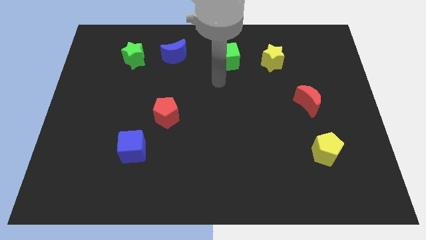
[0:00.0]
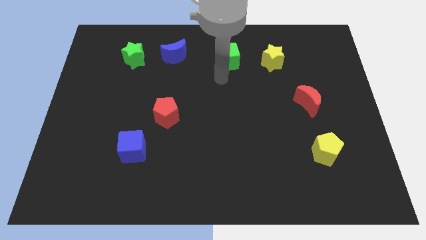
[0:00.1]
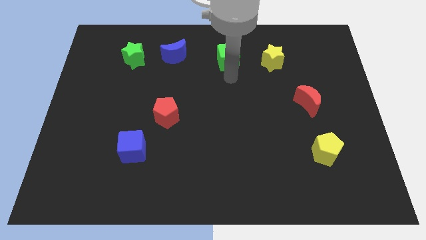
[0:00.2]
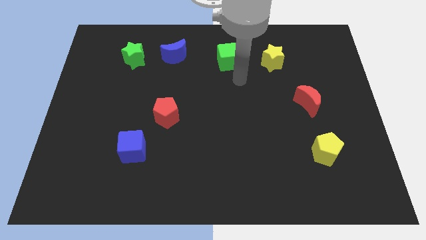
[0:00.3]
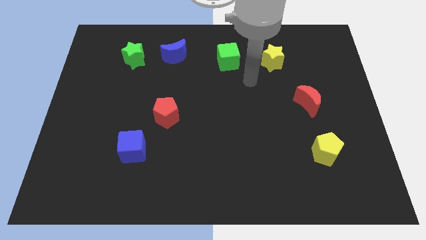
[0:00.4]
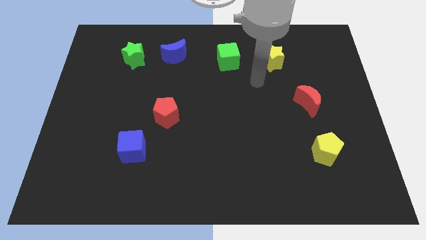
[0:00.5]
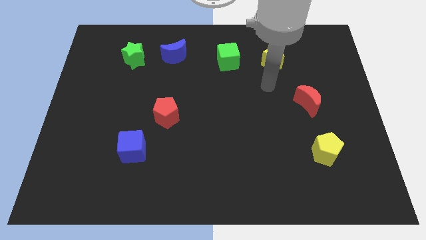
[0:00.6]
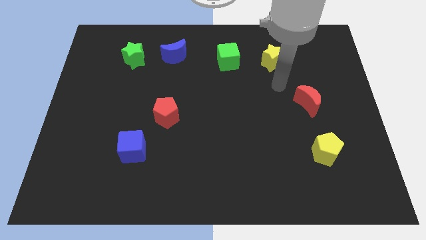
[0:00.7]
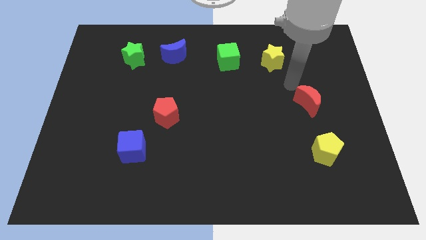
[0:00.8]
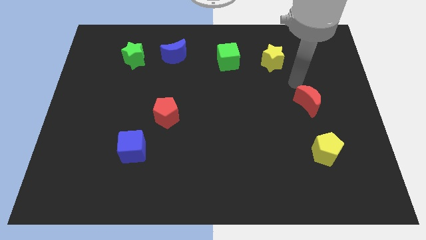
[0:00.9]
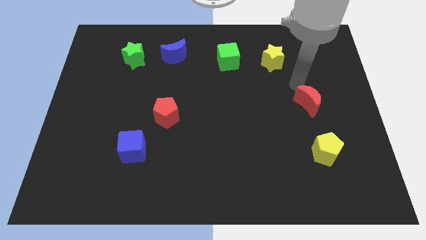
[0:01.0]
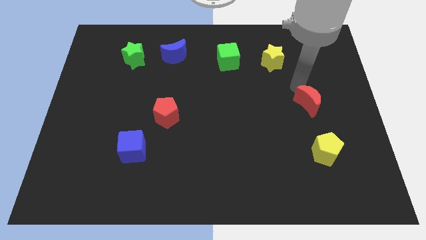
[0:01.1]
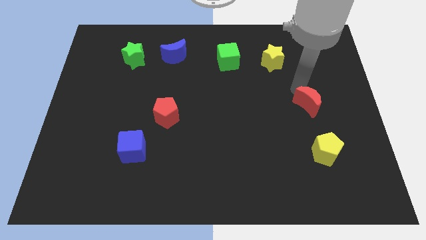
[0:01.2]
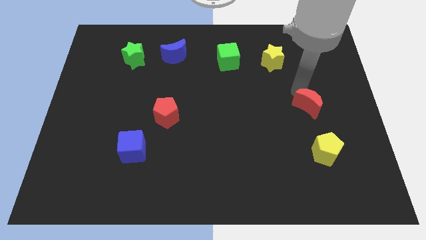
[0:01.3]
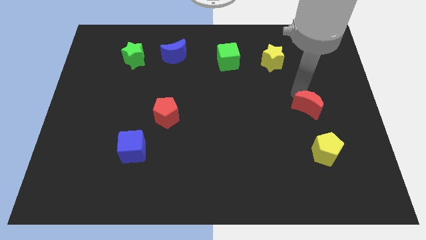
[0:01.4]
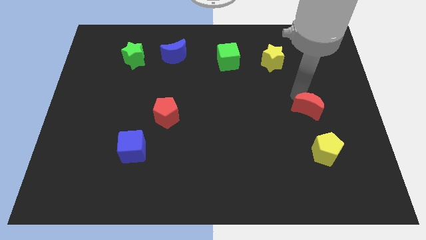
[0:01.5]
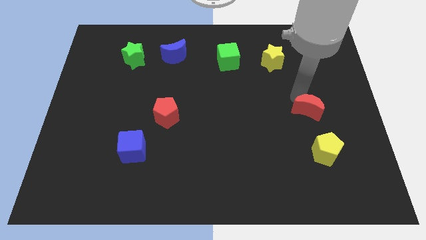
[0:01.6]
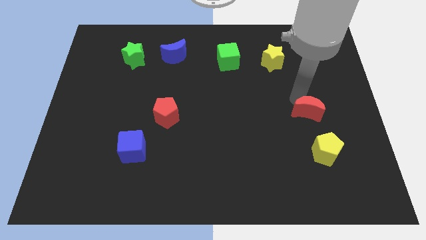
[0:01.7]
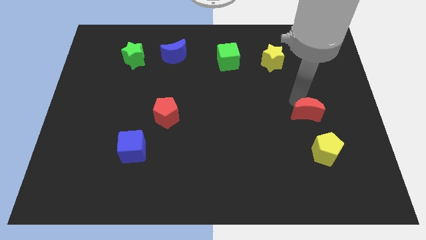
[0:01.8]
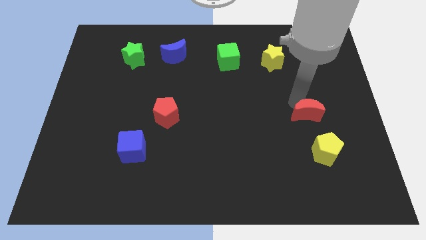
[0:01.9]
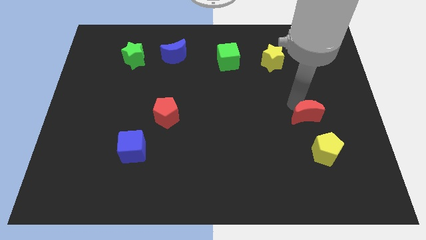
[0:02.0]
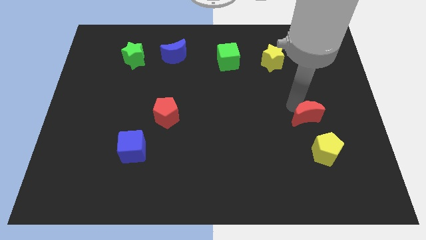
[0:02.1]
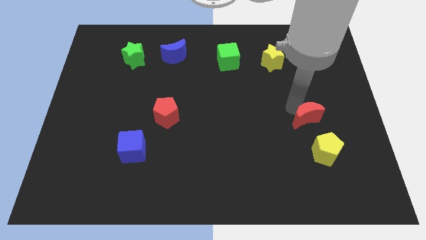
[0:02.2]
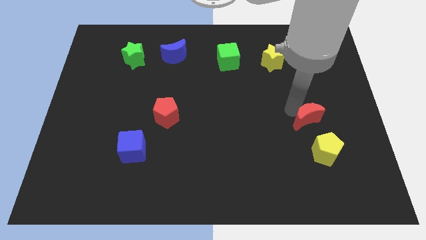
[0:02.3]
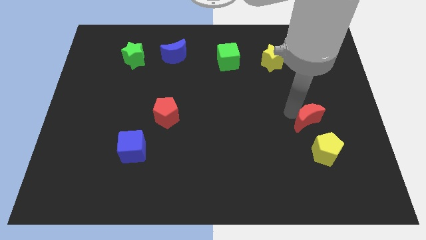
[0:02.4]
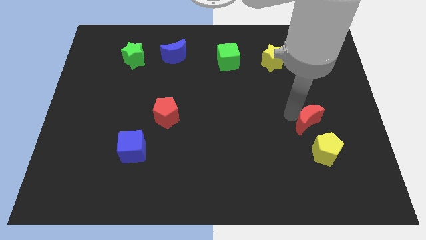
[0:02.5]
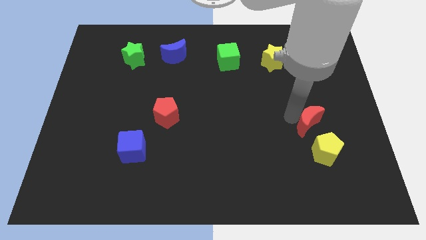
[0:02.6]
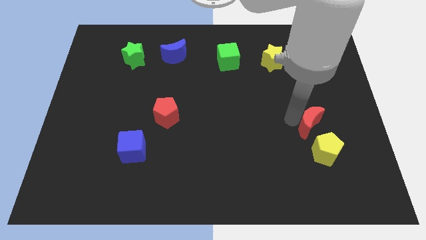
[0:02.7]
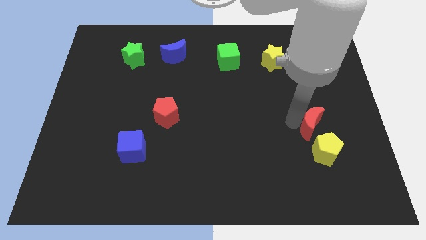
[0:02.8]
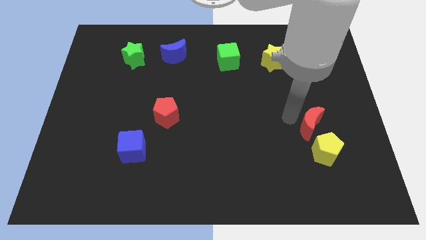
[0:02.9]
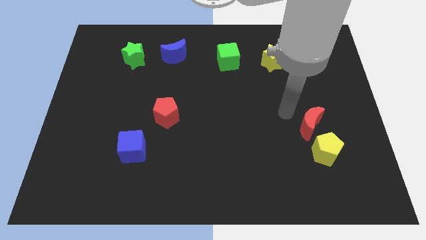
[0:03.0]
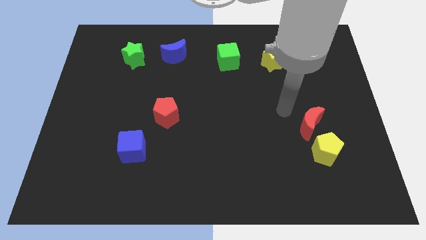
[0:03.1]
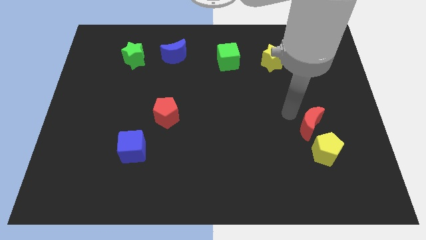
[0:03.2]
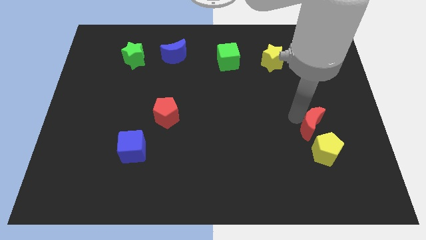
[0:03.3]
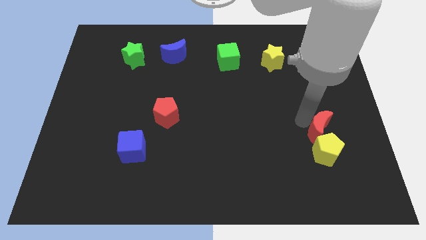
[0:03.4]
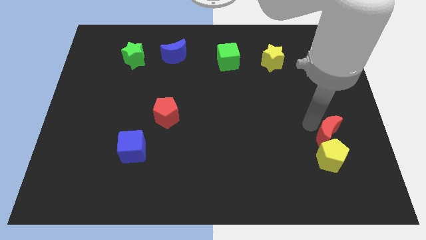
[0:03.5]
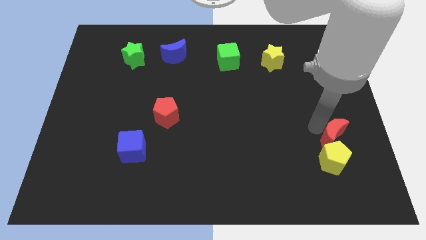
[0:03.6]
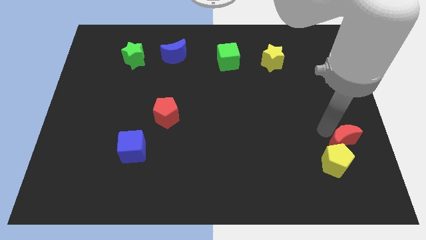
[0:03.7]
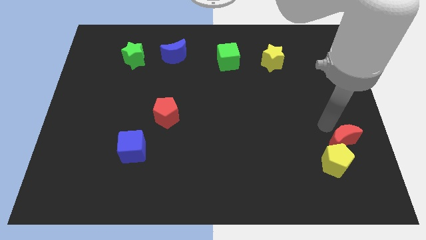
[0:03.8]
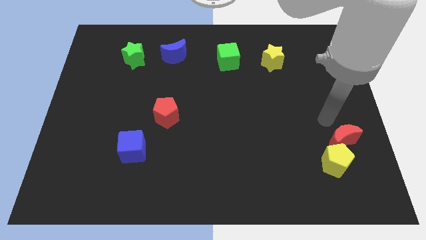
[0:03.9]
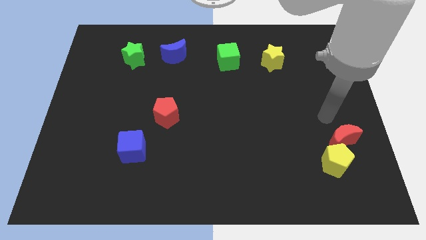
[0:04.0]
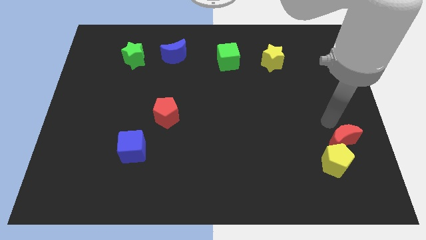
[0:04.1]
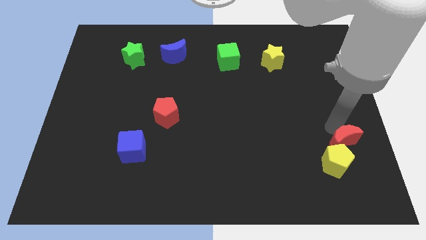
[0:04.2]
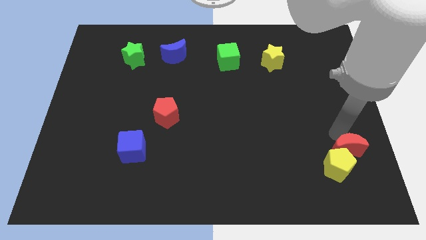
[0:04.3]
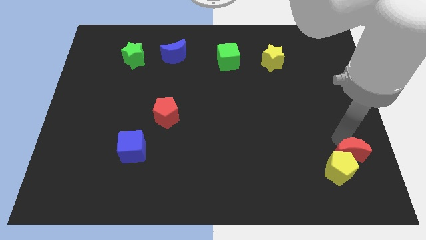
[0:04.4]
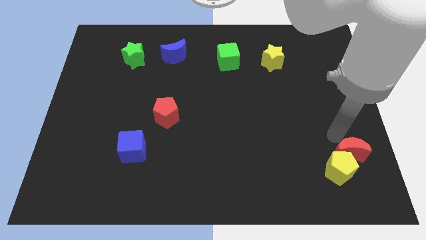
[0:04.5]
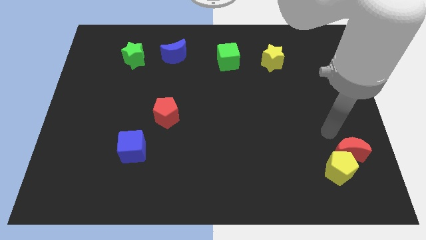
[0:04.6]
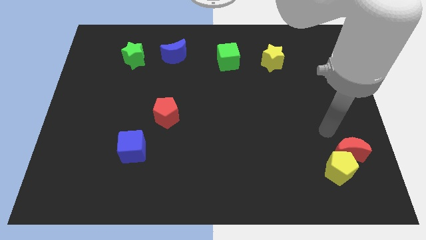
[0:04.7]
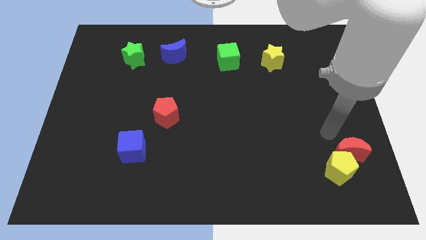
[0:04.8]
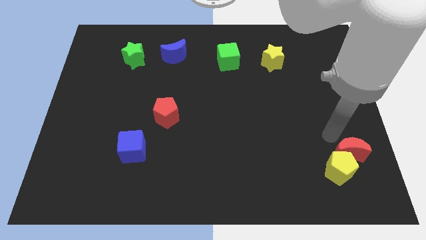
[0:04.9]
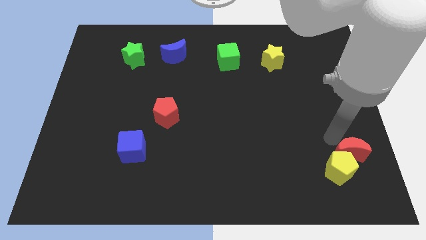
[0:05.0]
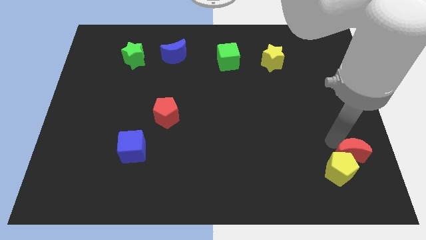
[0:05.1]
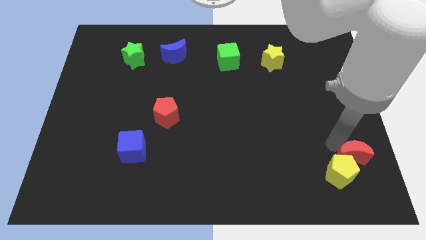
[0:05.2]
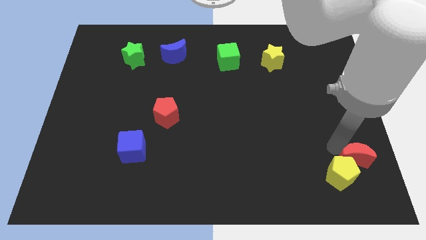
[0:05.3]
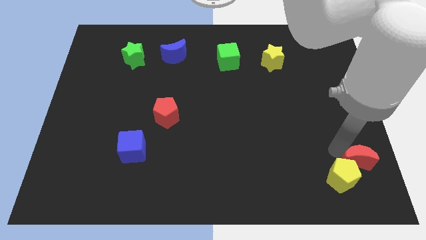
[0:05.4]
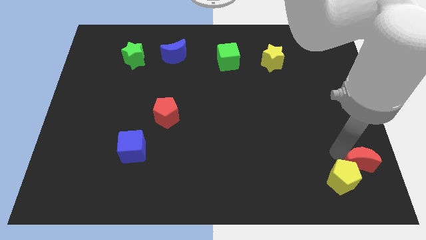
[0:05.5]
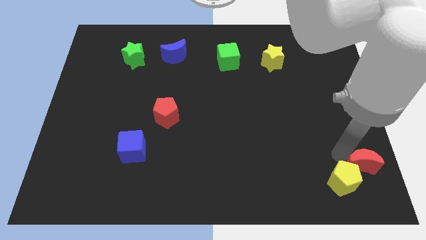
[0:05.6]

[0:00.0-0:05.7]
put the red moon to the bottom right

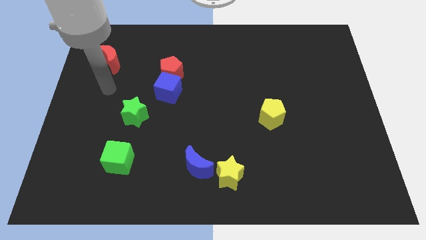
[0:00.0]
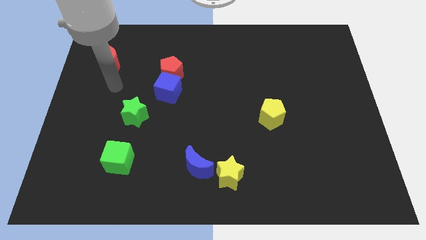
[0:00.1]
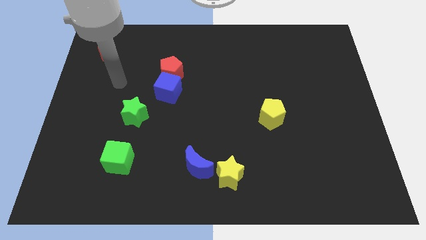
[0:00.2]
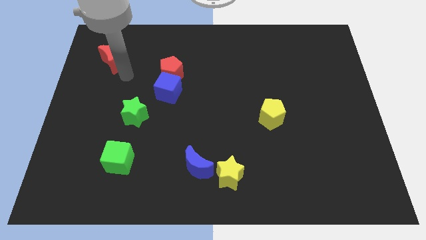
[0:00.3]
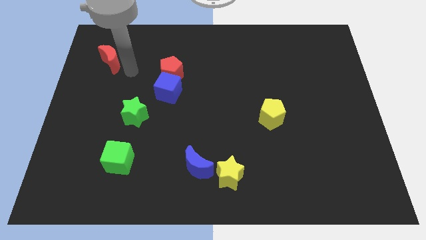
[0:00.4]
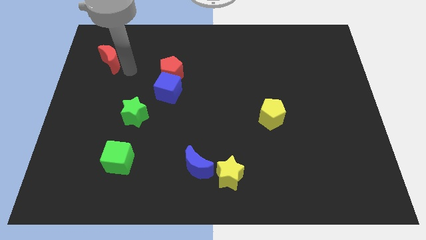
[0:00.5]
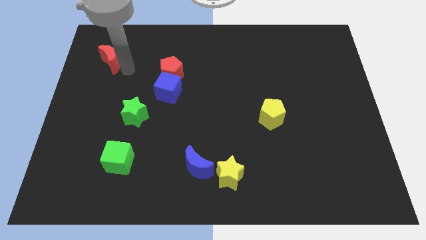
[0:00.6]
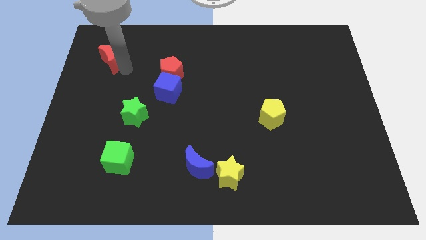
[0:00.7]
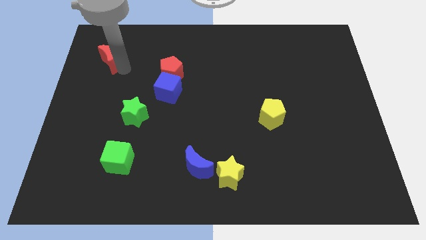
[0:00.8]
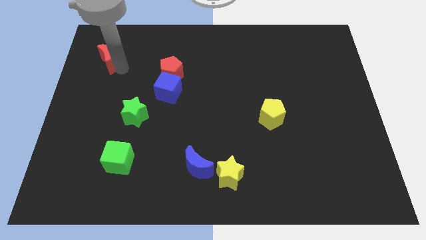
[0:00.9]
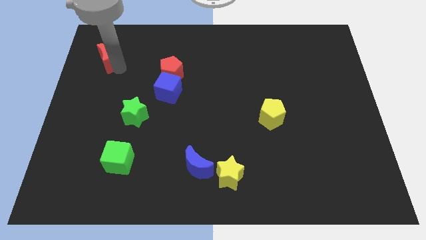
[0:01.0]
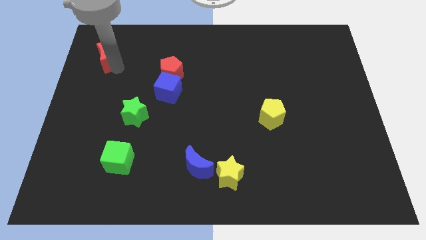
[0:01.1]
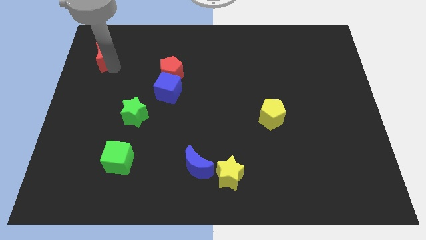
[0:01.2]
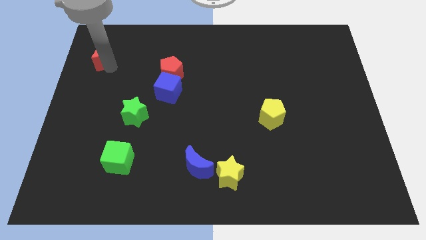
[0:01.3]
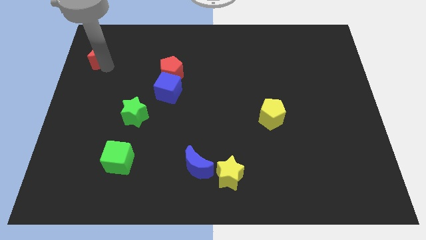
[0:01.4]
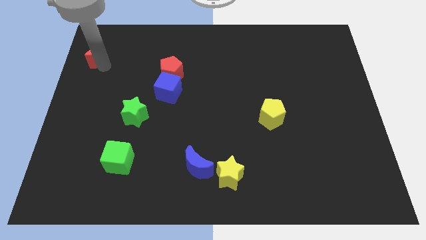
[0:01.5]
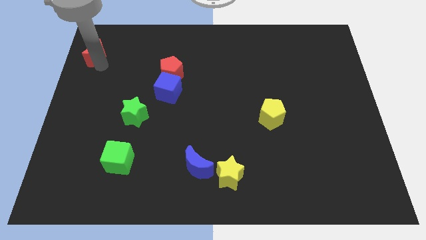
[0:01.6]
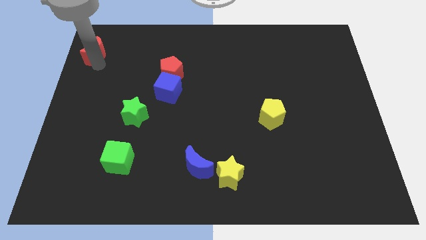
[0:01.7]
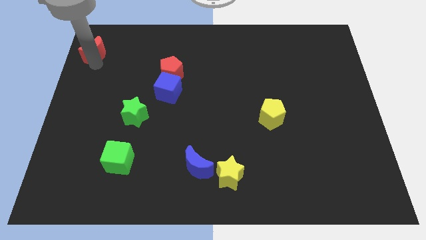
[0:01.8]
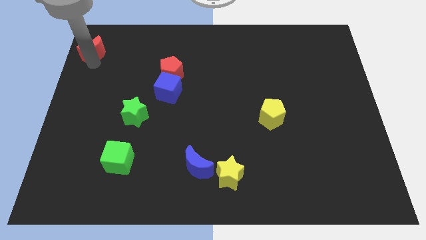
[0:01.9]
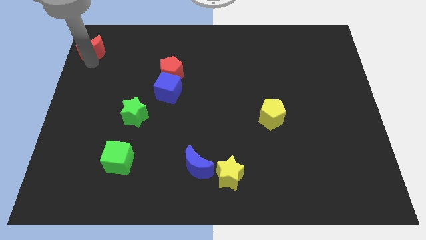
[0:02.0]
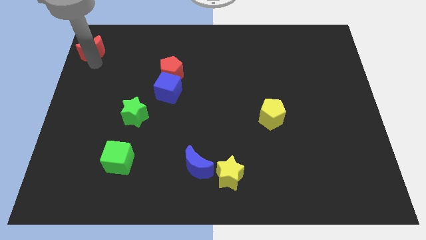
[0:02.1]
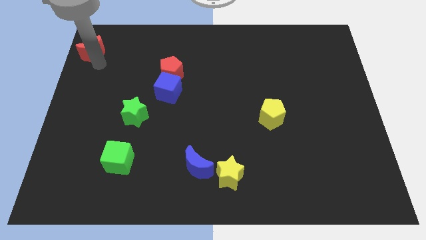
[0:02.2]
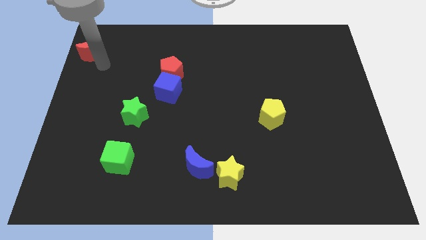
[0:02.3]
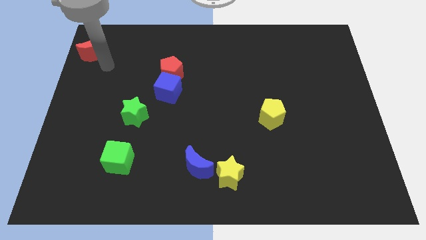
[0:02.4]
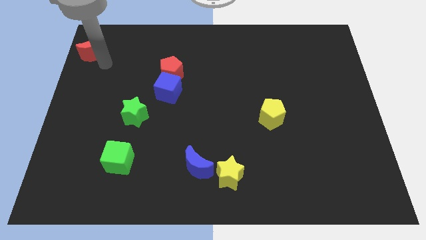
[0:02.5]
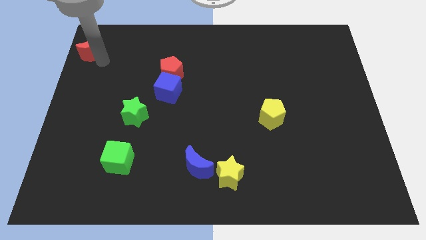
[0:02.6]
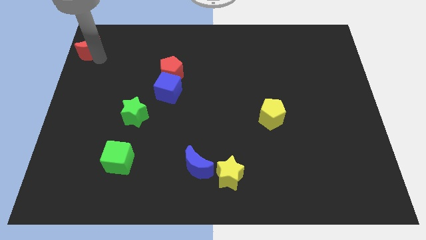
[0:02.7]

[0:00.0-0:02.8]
put the red moon to the top left
